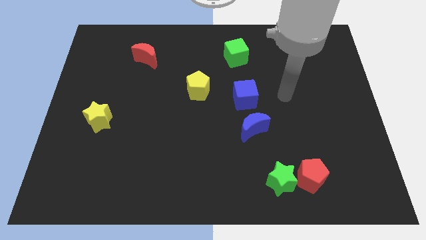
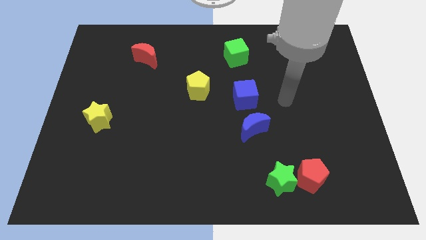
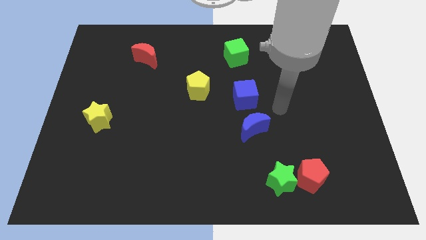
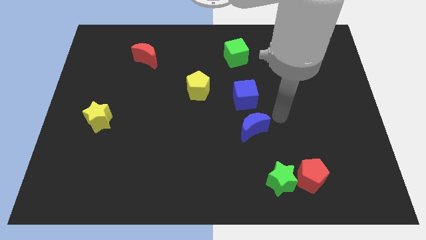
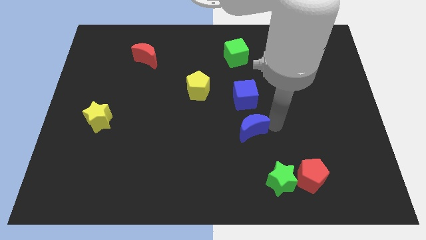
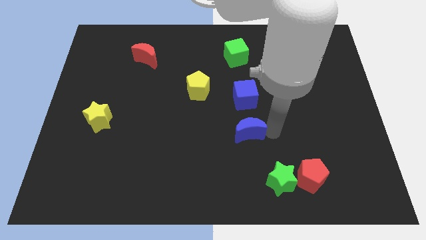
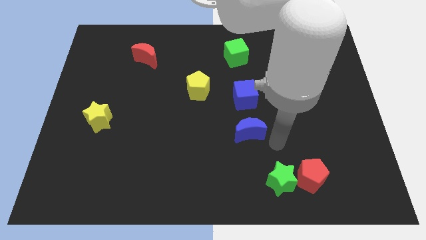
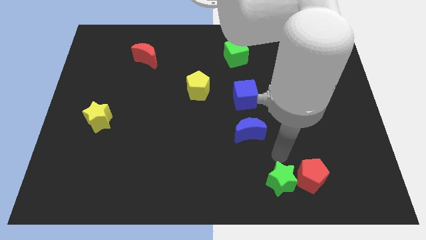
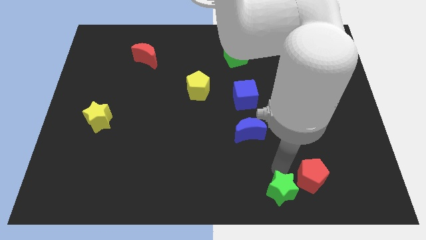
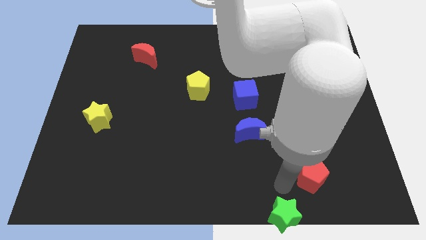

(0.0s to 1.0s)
pull the red pentagon apart from the green star

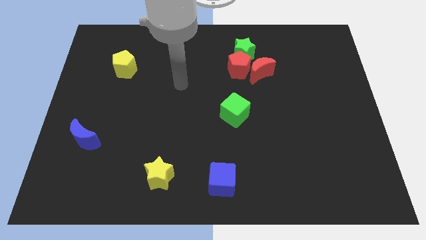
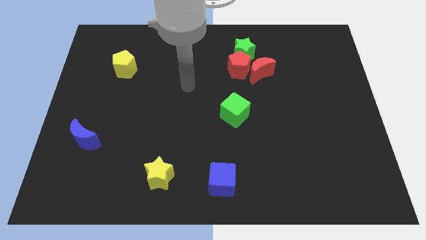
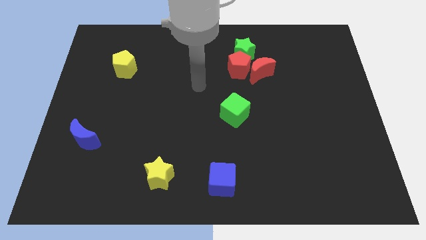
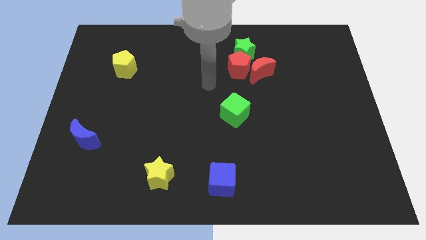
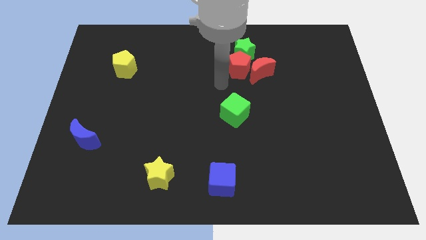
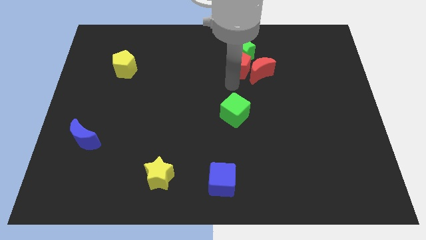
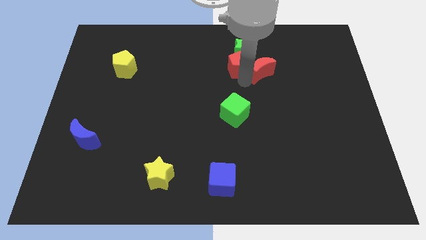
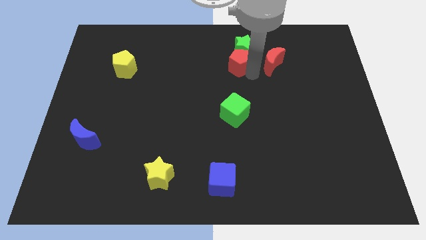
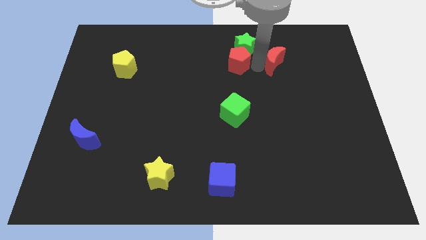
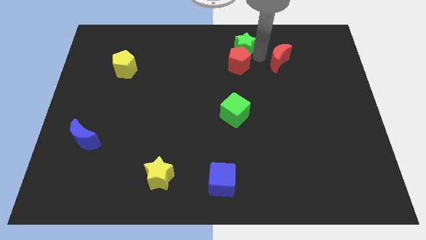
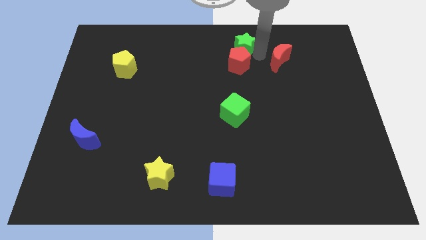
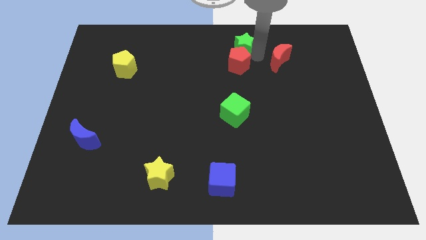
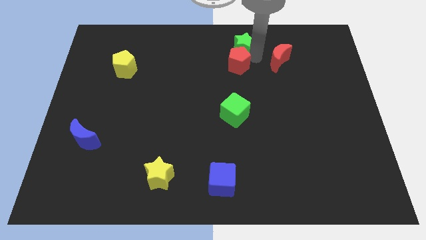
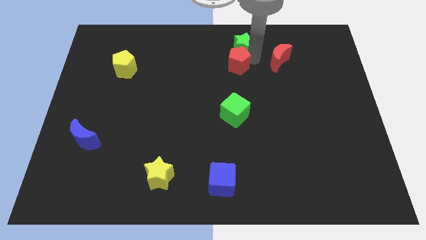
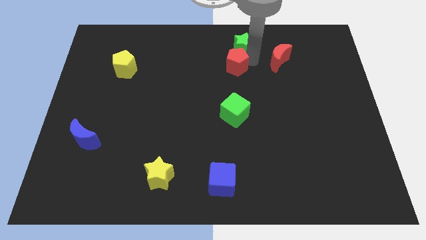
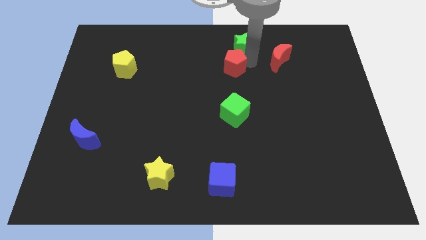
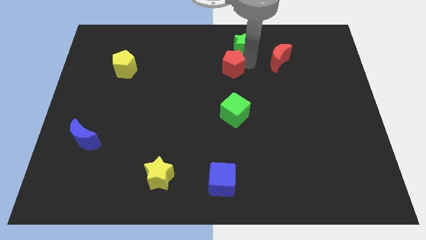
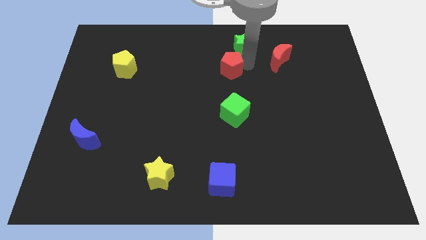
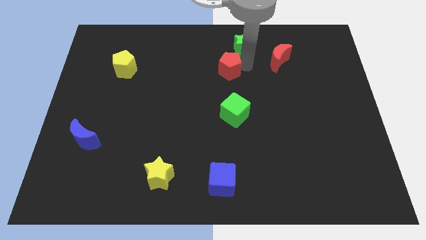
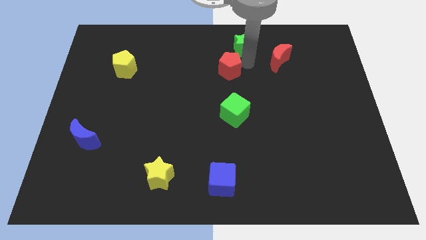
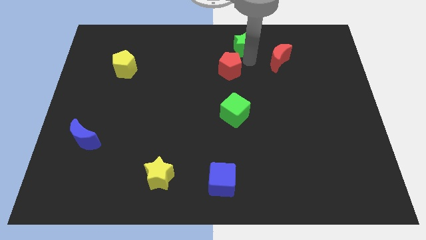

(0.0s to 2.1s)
pull the red pentagon apart from the red moon and green star

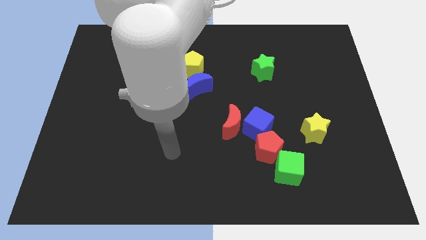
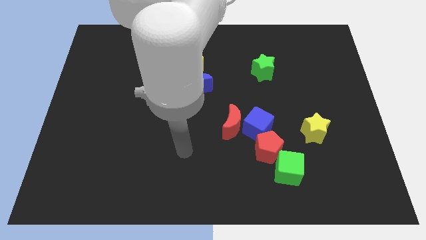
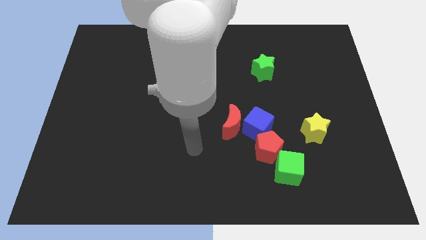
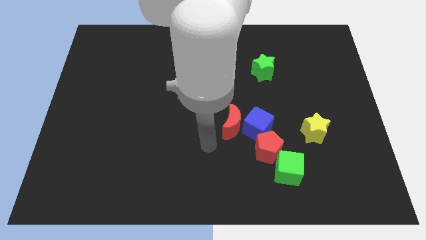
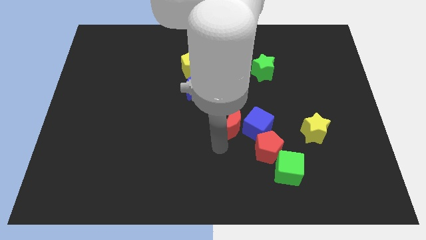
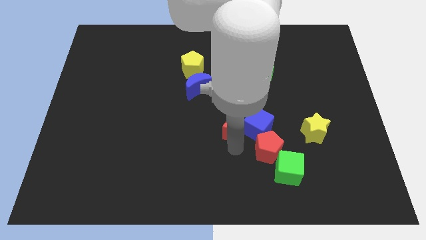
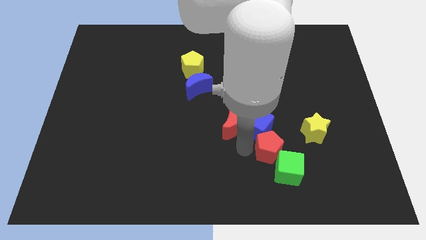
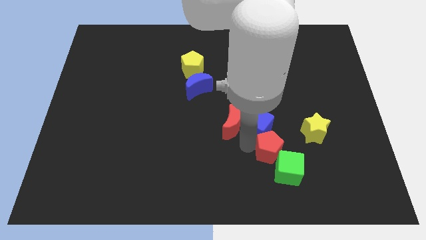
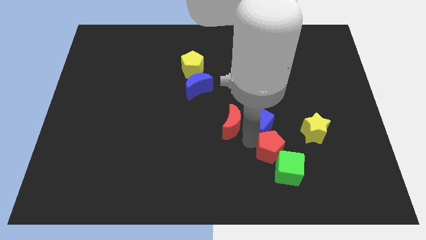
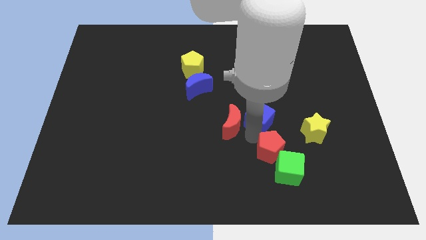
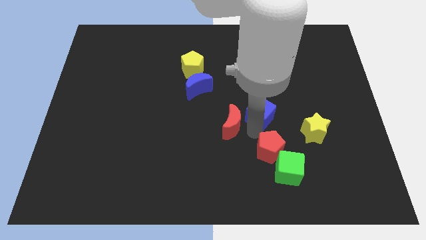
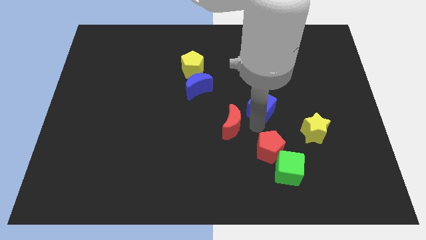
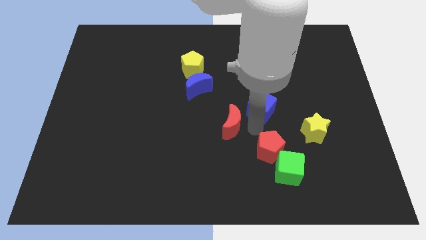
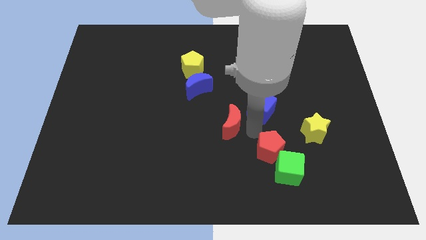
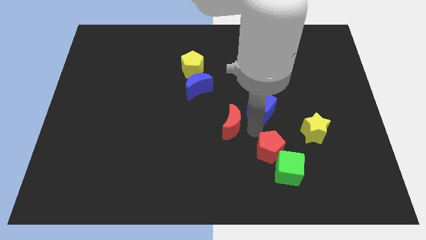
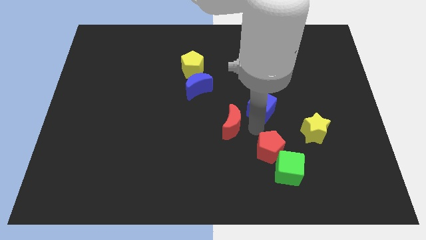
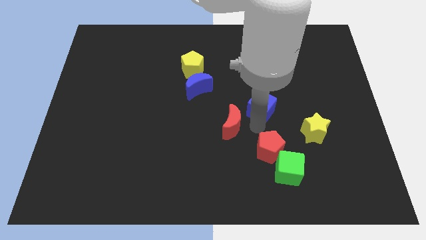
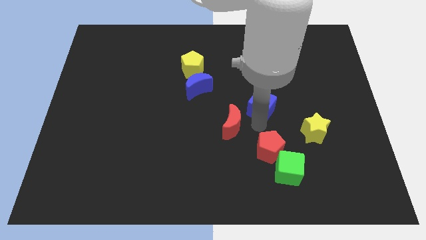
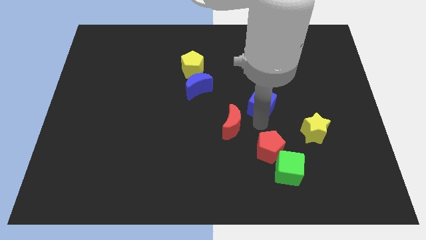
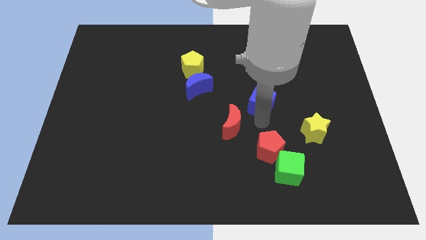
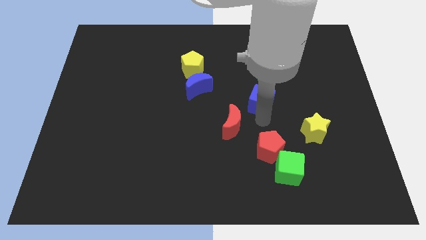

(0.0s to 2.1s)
pull the blue cube apart from the red moon and red pentagon

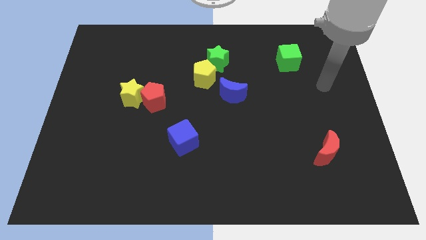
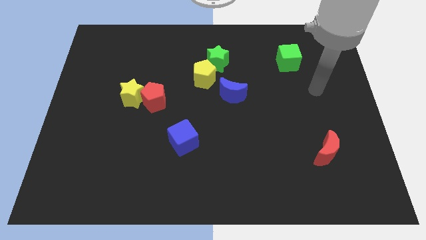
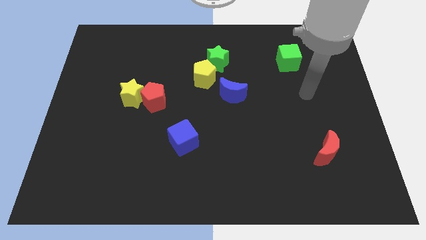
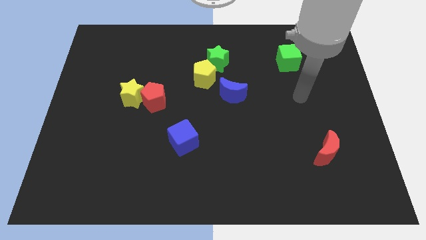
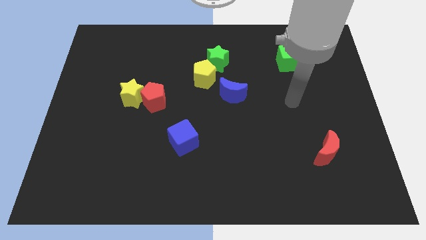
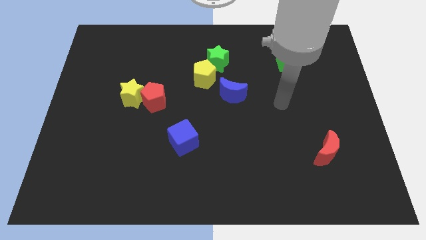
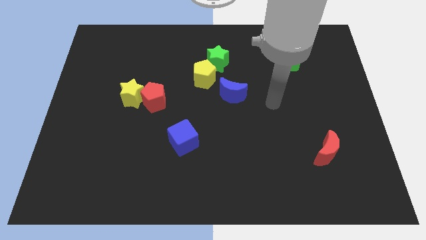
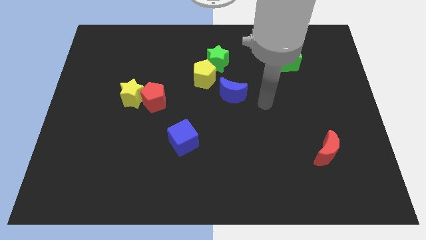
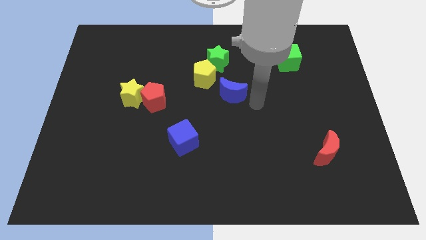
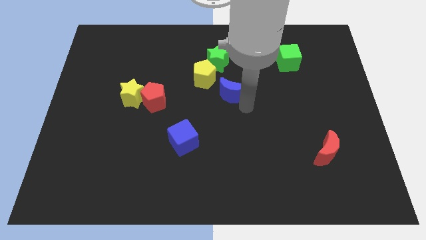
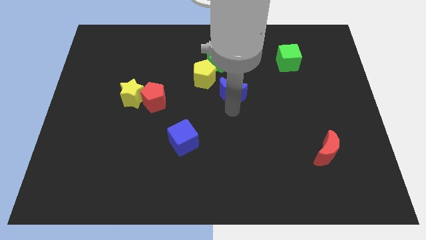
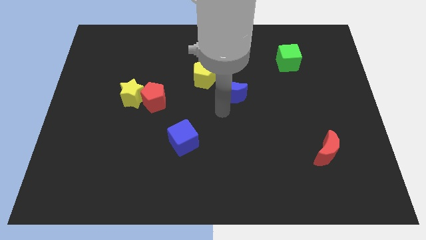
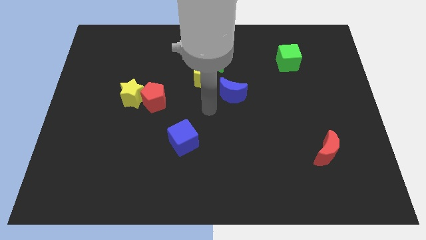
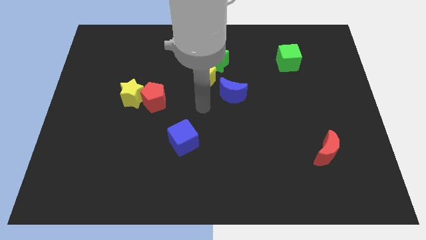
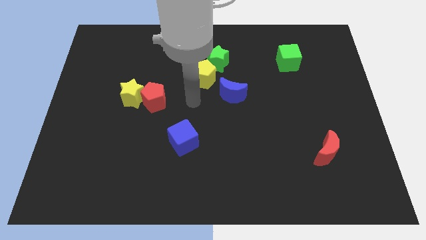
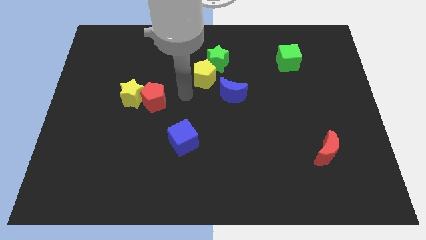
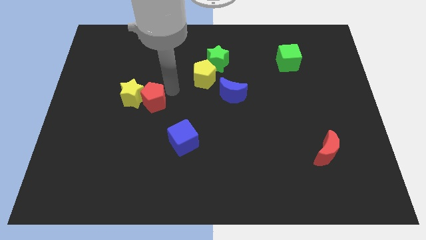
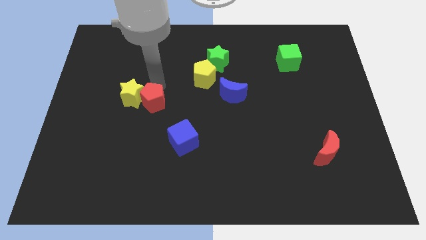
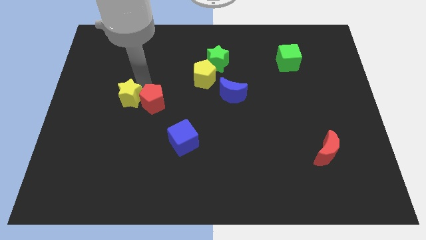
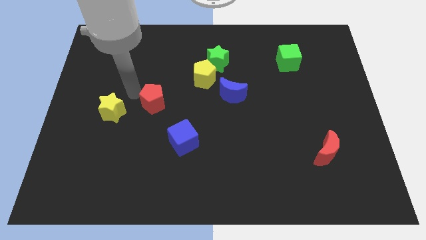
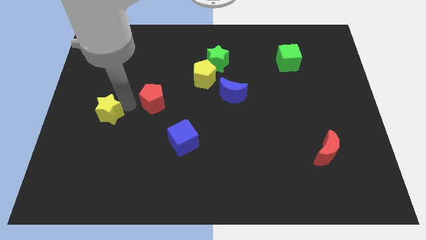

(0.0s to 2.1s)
pull the red pentagon apart from the yellow star

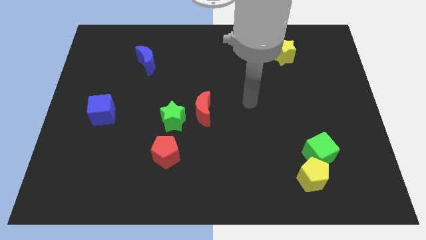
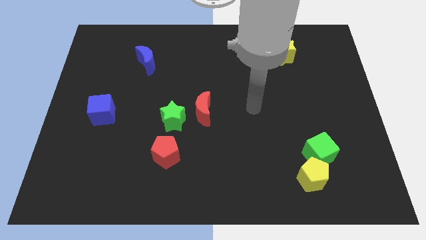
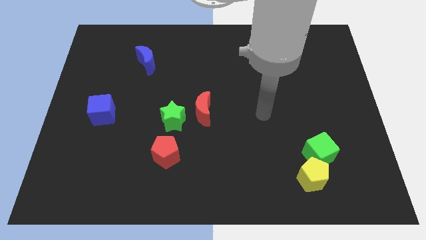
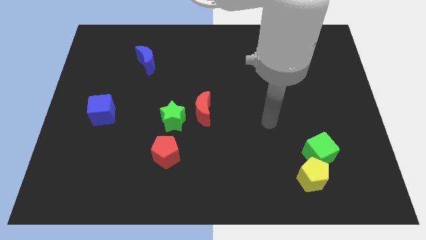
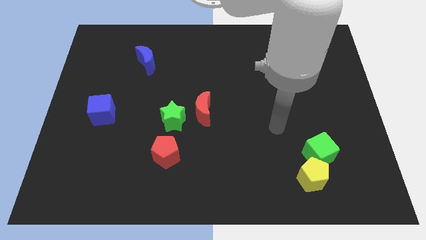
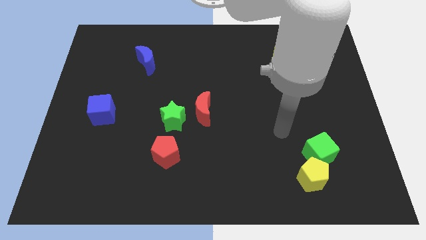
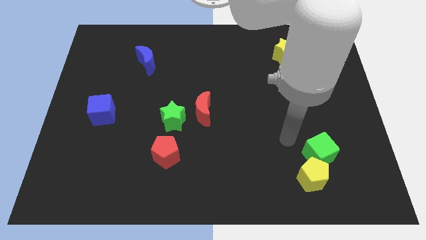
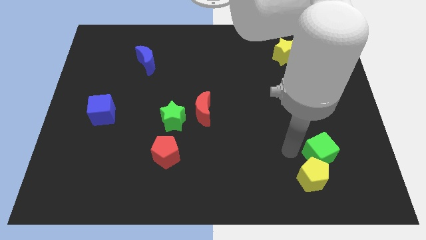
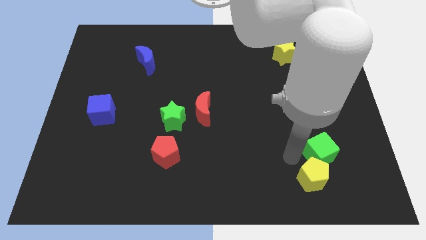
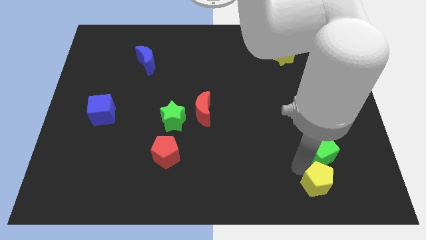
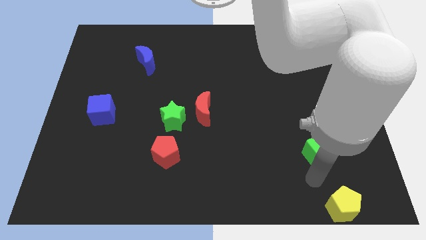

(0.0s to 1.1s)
separate the green cube from the yellow pentagon

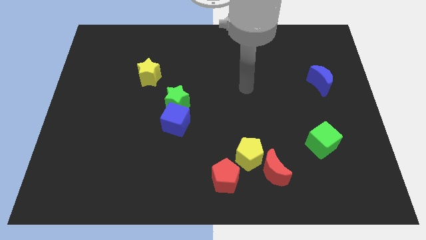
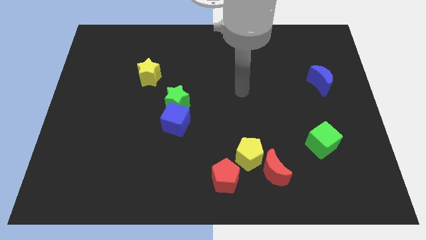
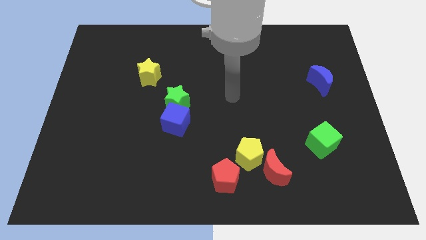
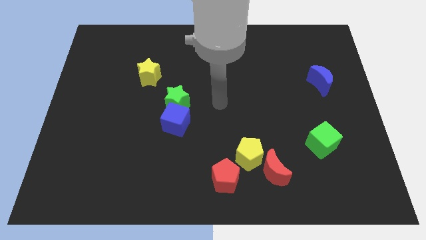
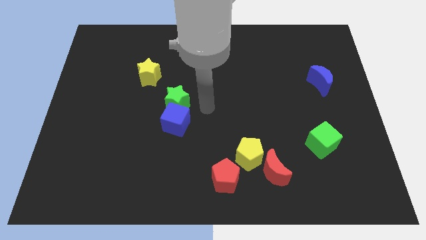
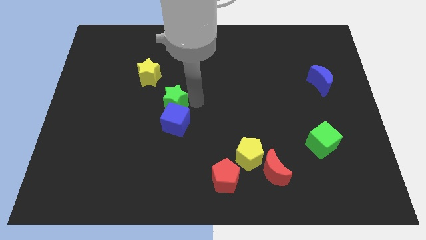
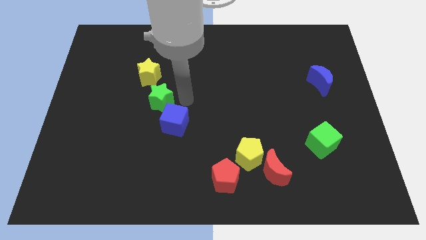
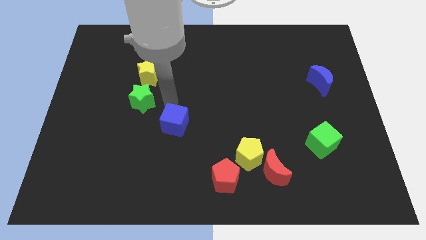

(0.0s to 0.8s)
move the blue cube away from the green star
